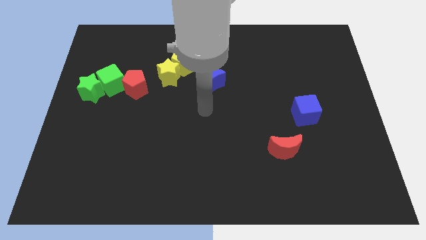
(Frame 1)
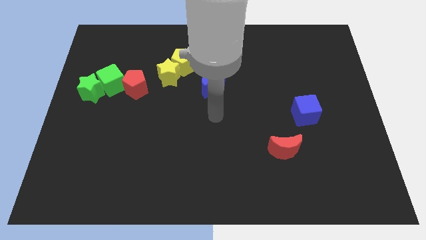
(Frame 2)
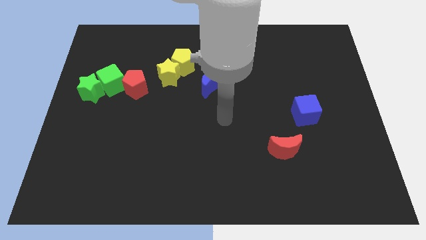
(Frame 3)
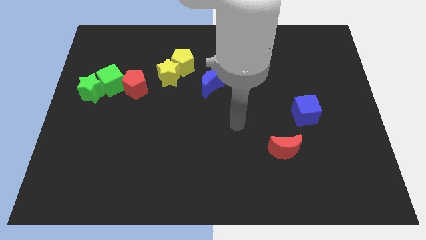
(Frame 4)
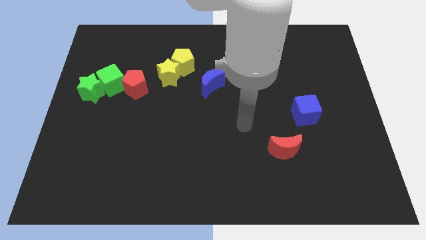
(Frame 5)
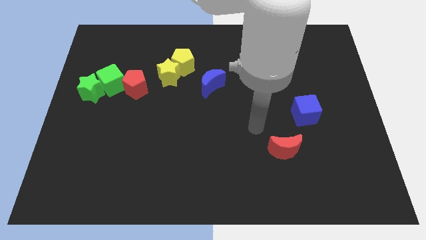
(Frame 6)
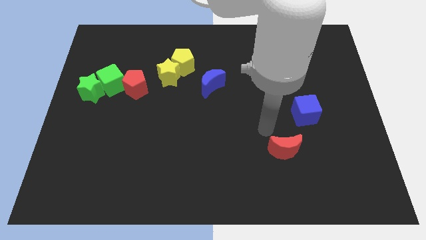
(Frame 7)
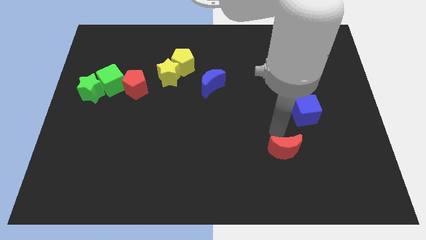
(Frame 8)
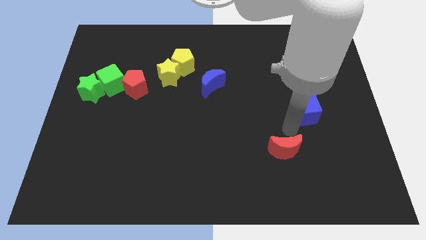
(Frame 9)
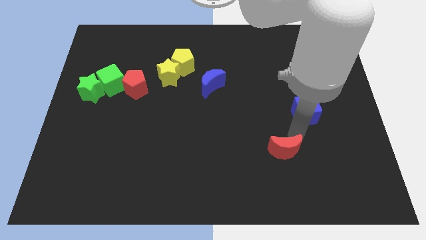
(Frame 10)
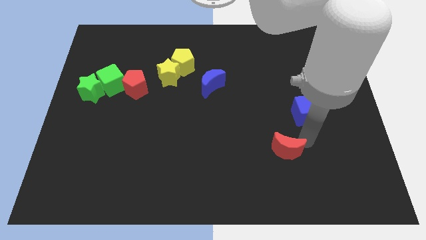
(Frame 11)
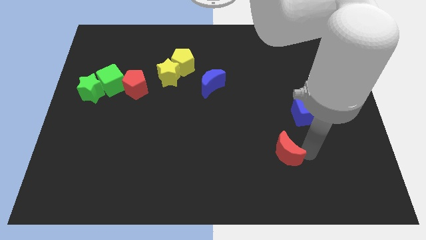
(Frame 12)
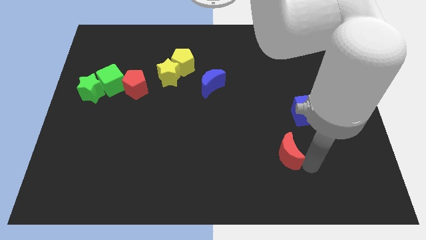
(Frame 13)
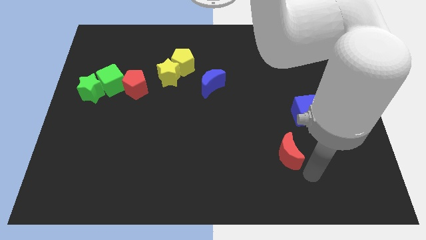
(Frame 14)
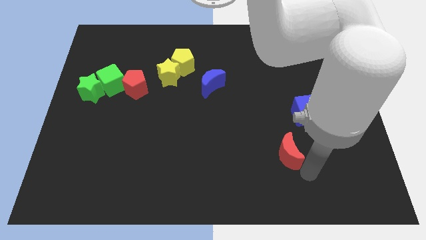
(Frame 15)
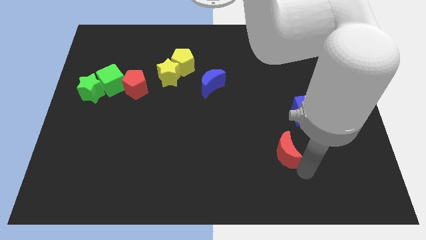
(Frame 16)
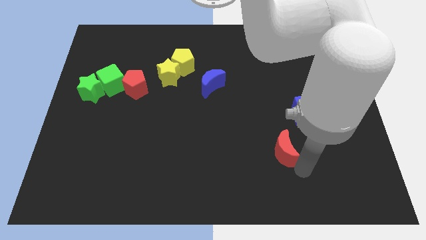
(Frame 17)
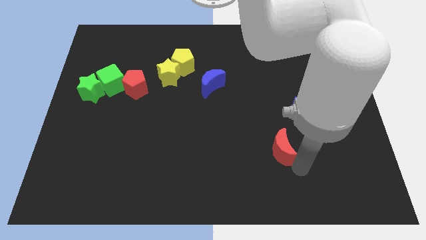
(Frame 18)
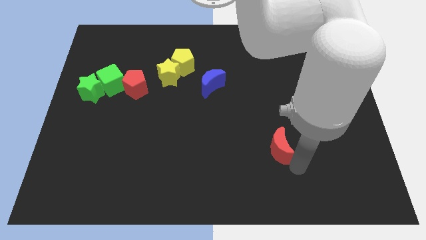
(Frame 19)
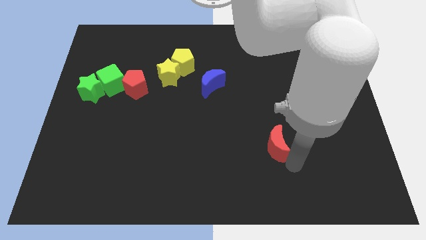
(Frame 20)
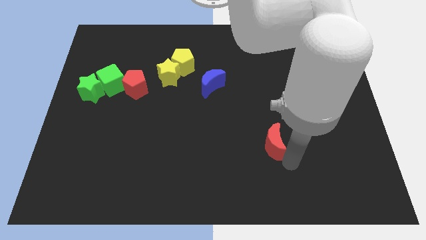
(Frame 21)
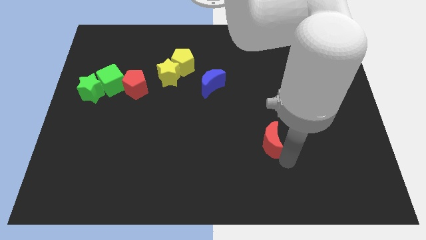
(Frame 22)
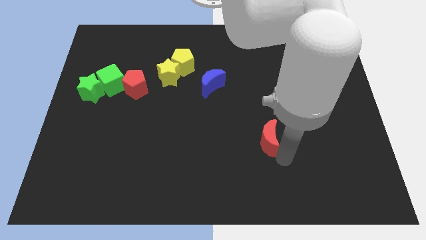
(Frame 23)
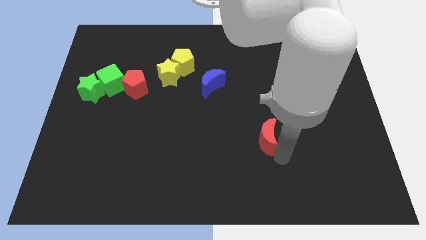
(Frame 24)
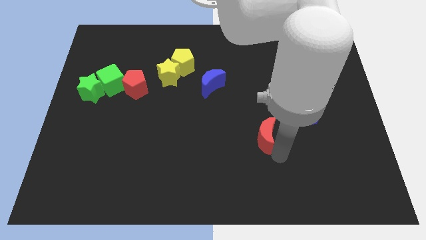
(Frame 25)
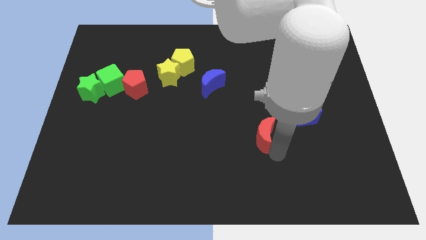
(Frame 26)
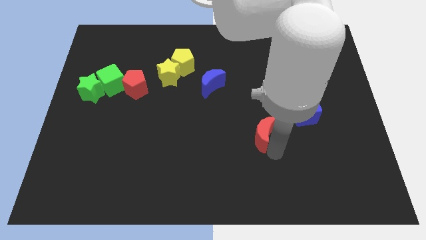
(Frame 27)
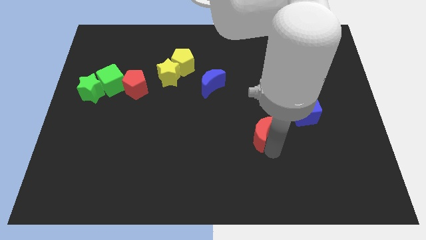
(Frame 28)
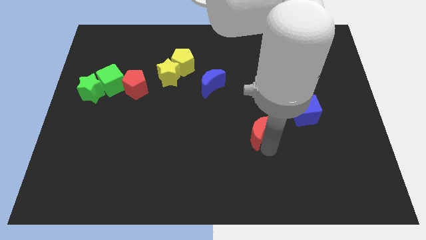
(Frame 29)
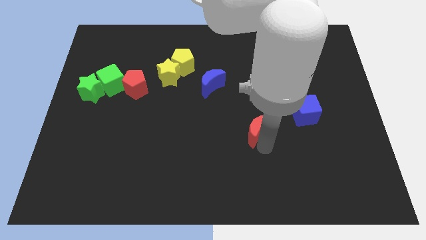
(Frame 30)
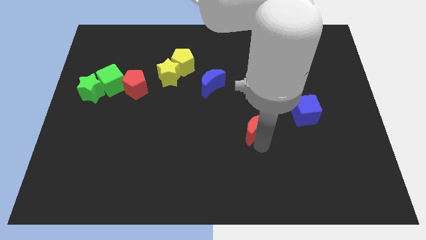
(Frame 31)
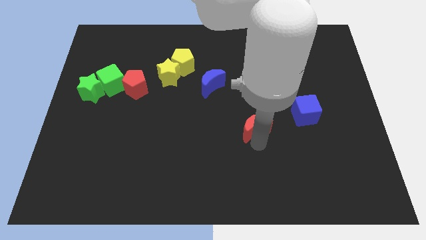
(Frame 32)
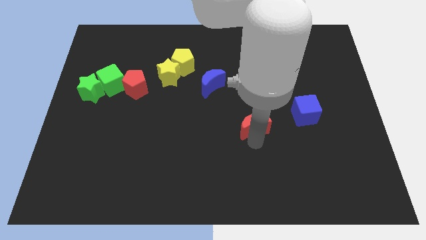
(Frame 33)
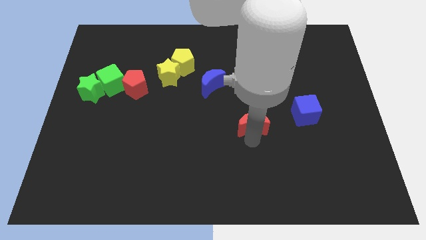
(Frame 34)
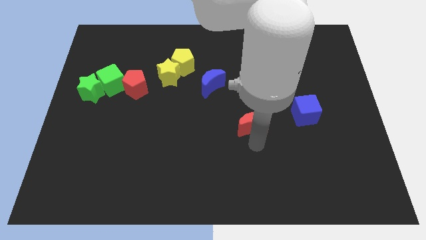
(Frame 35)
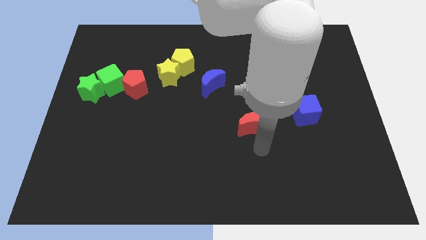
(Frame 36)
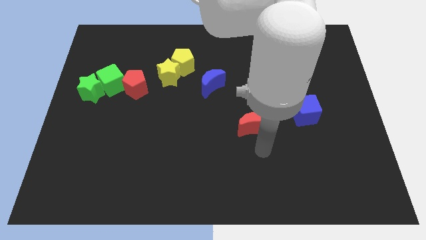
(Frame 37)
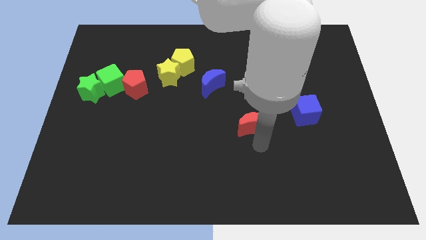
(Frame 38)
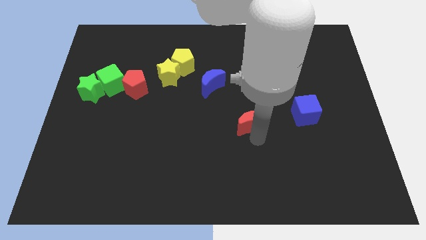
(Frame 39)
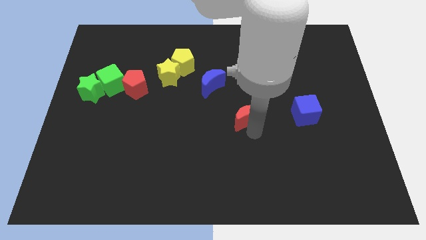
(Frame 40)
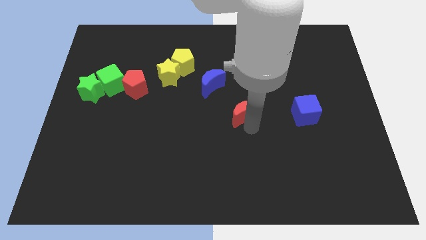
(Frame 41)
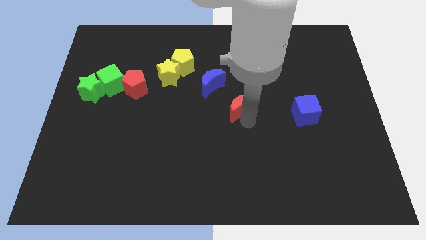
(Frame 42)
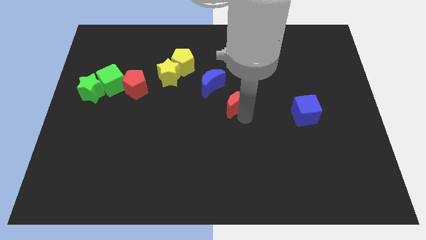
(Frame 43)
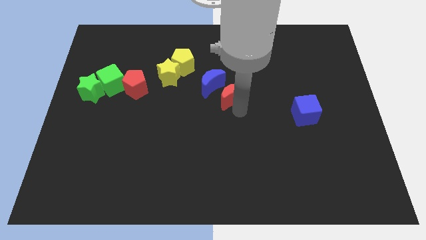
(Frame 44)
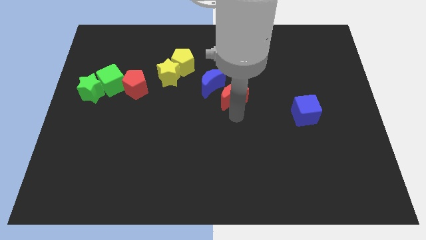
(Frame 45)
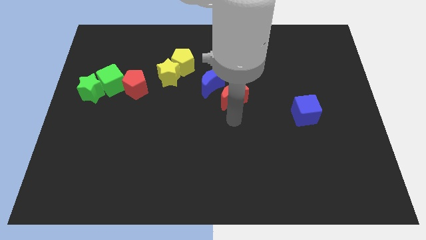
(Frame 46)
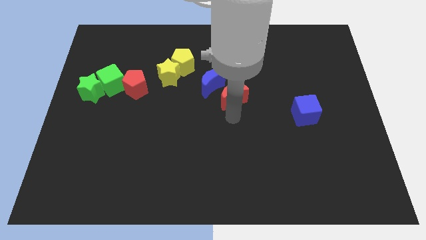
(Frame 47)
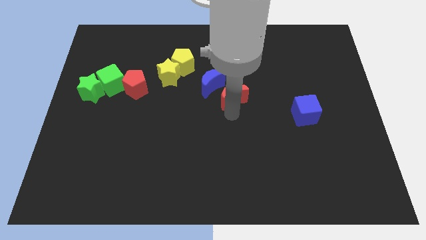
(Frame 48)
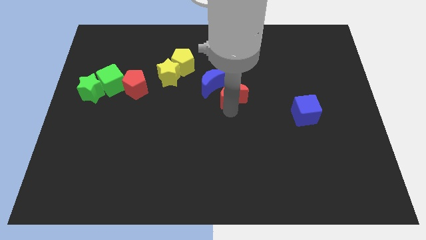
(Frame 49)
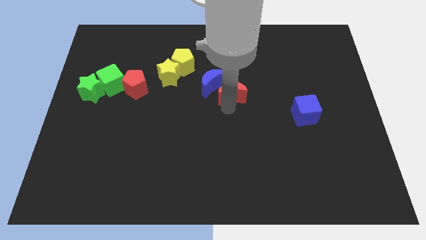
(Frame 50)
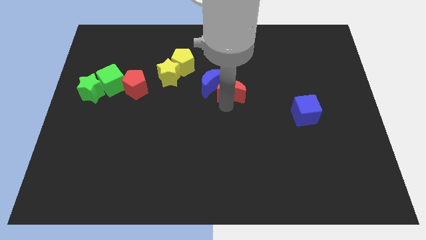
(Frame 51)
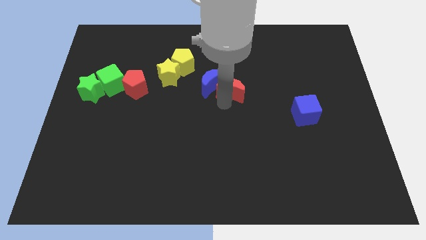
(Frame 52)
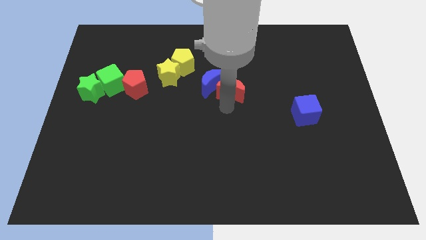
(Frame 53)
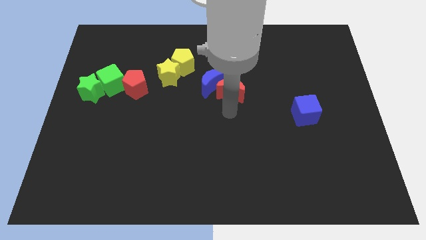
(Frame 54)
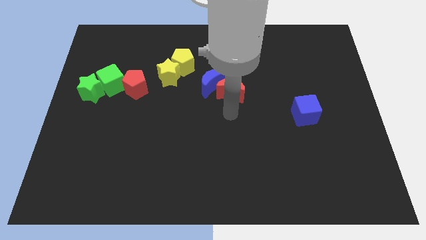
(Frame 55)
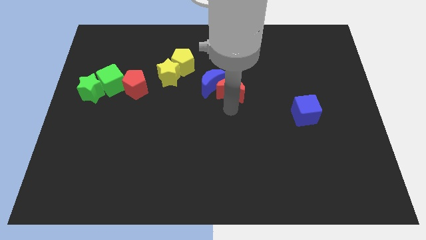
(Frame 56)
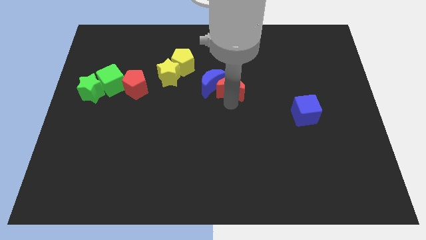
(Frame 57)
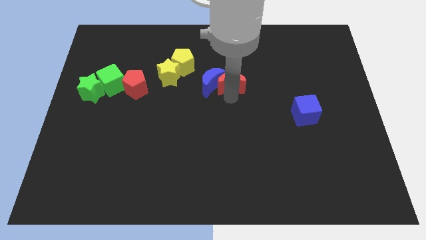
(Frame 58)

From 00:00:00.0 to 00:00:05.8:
push the red moon to the top right side of the blue moon

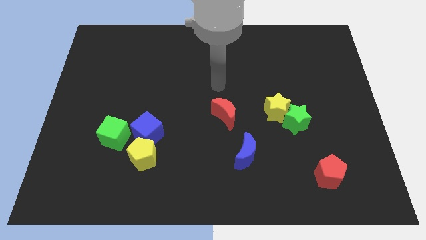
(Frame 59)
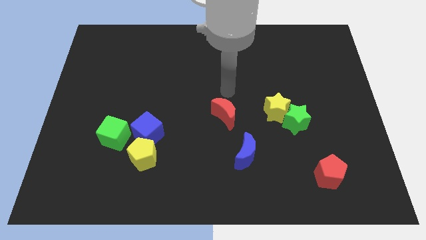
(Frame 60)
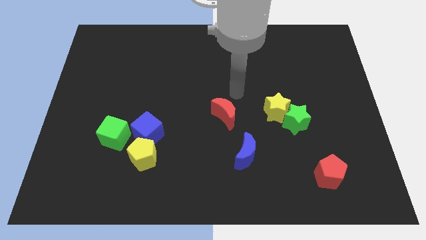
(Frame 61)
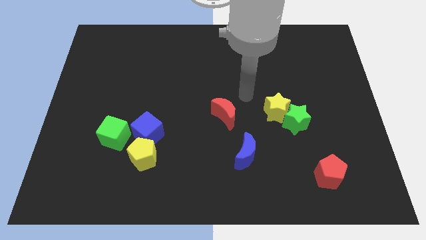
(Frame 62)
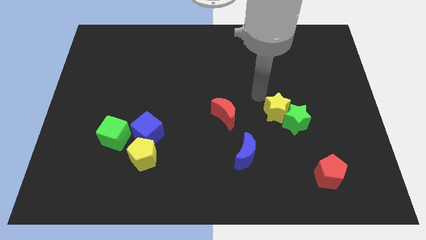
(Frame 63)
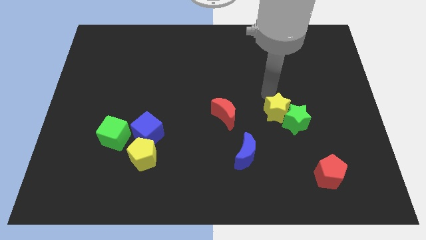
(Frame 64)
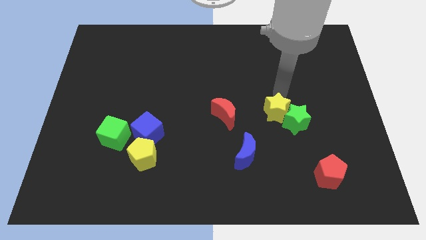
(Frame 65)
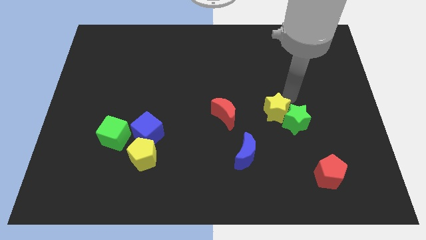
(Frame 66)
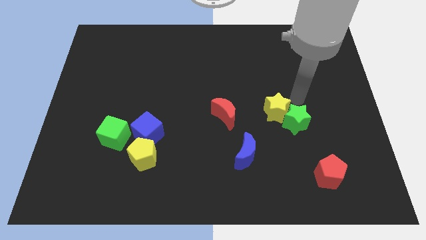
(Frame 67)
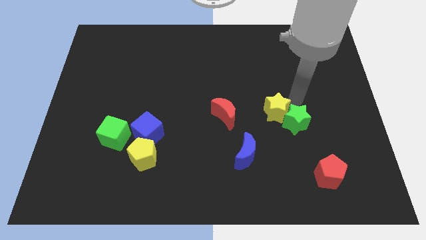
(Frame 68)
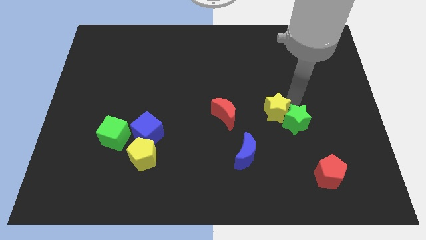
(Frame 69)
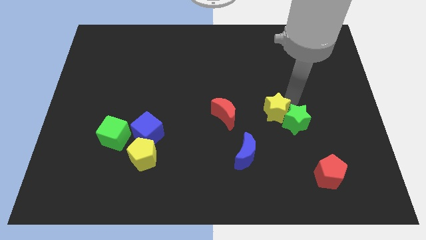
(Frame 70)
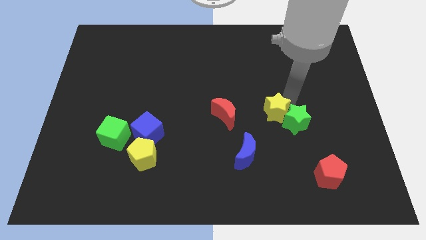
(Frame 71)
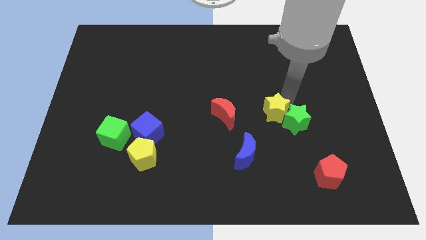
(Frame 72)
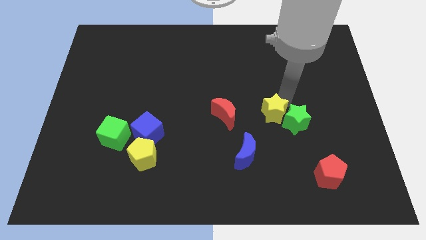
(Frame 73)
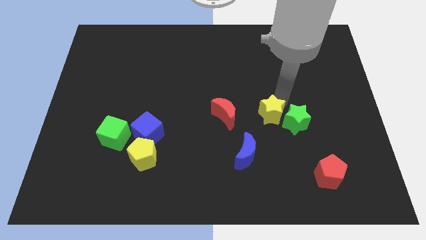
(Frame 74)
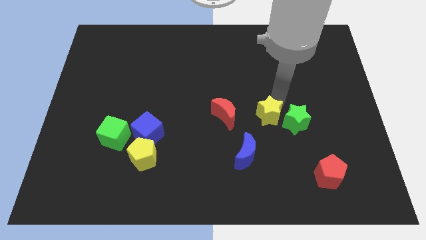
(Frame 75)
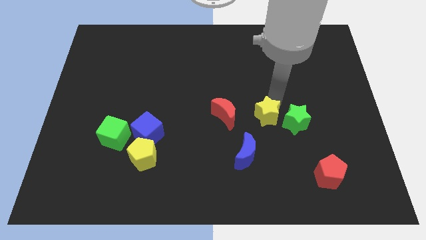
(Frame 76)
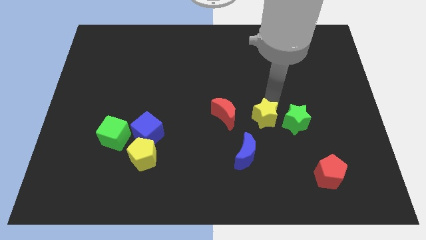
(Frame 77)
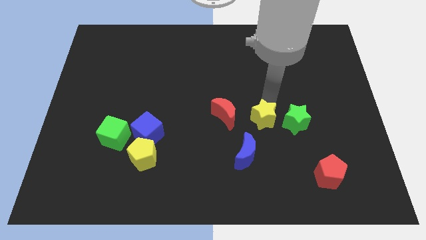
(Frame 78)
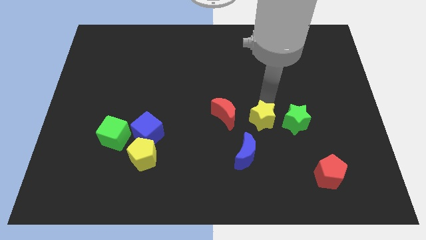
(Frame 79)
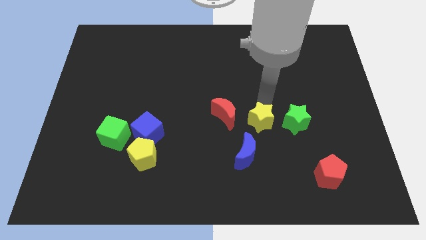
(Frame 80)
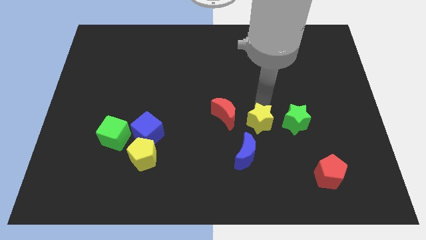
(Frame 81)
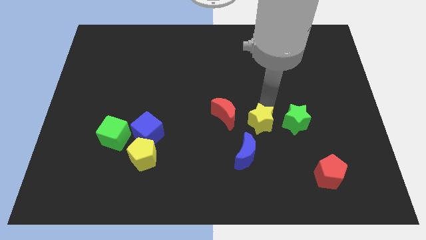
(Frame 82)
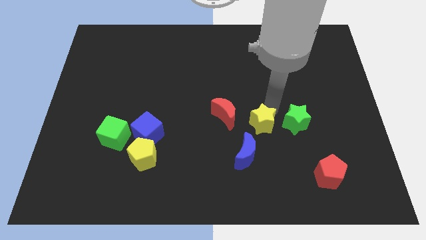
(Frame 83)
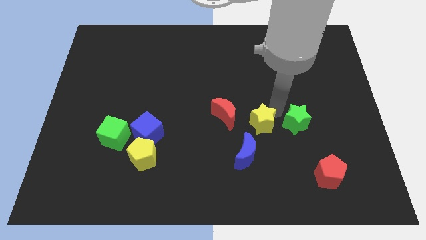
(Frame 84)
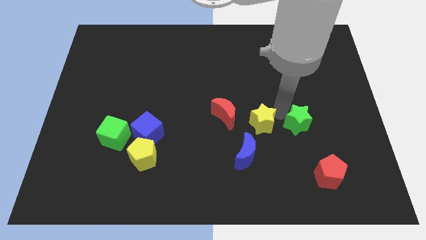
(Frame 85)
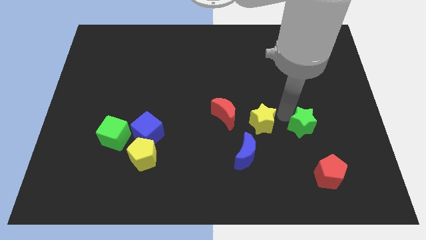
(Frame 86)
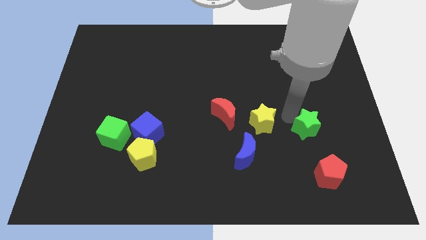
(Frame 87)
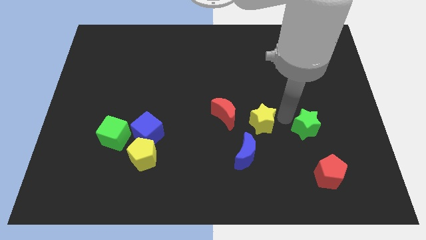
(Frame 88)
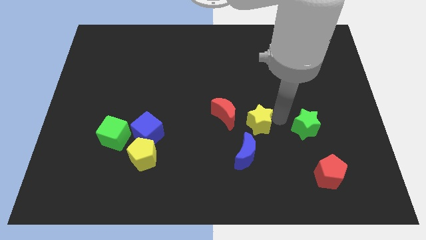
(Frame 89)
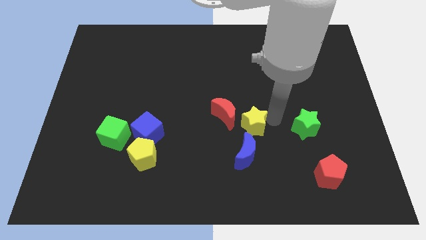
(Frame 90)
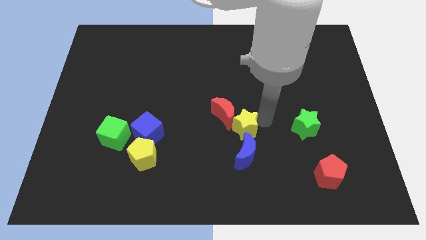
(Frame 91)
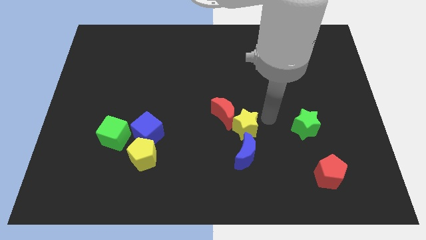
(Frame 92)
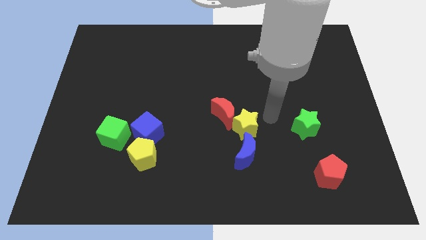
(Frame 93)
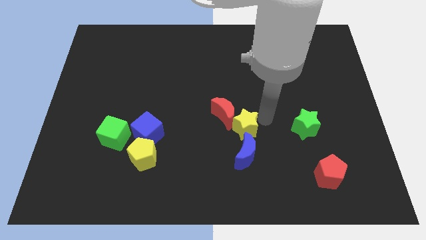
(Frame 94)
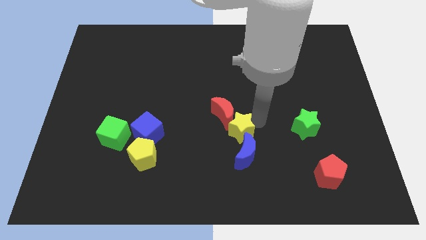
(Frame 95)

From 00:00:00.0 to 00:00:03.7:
slide the yellow star to the top left of the blue moon
